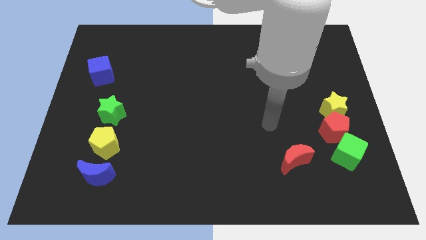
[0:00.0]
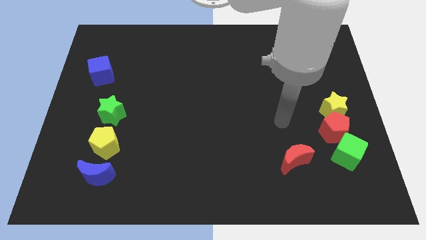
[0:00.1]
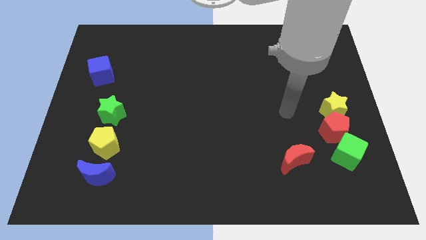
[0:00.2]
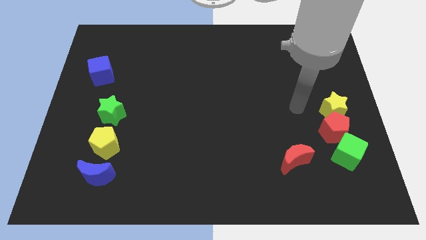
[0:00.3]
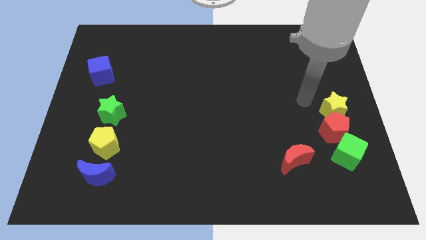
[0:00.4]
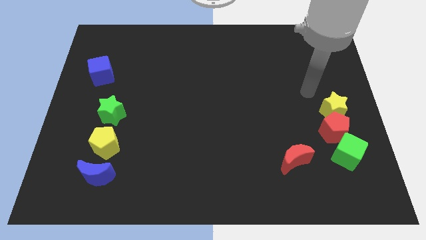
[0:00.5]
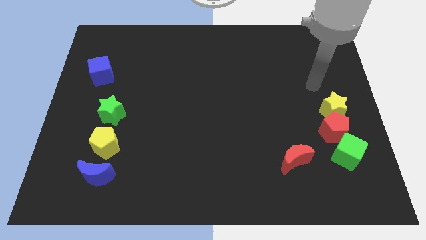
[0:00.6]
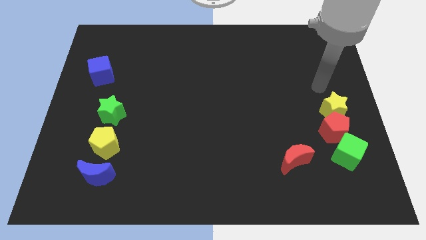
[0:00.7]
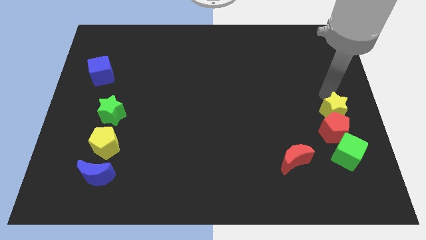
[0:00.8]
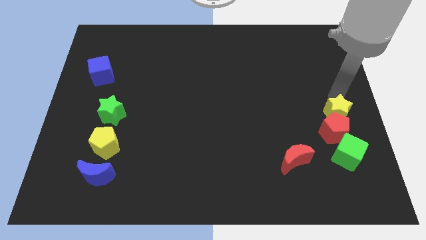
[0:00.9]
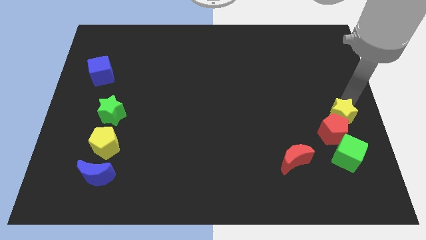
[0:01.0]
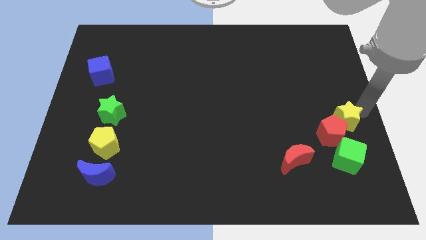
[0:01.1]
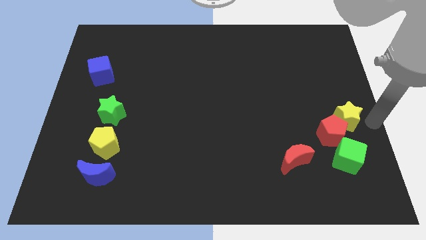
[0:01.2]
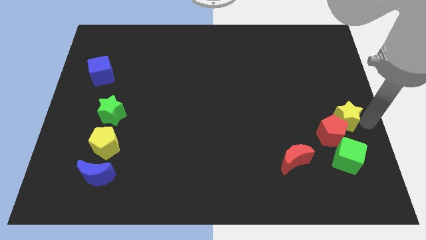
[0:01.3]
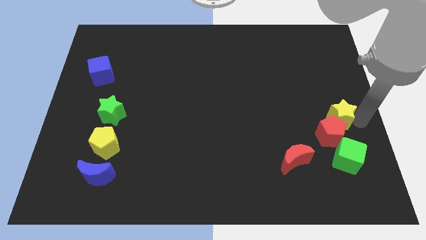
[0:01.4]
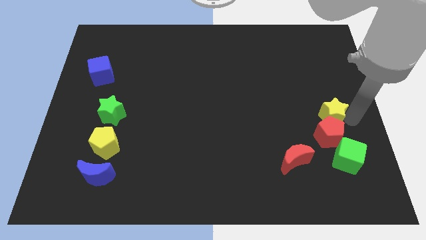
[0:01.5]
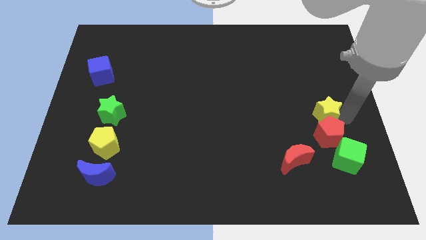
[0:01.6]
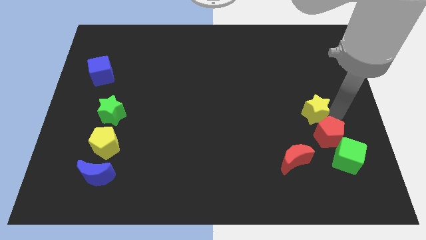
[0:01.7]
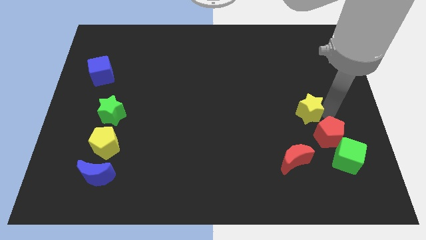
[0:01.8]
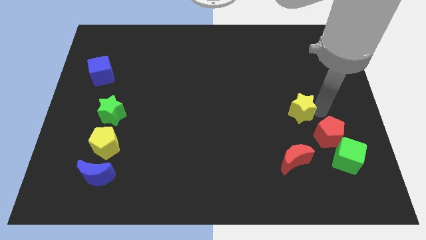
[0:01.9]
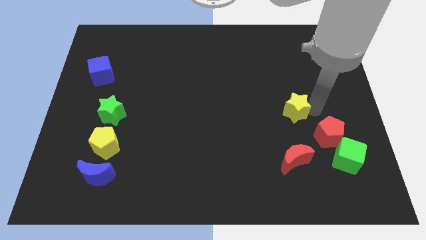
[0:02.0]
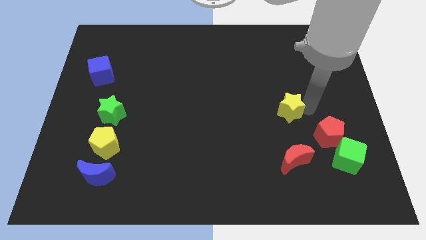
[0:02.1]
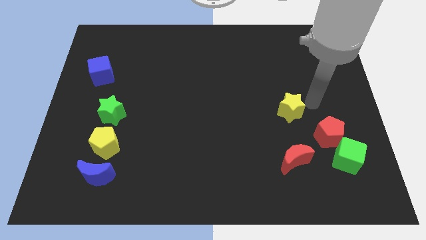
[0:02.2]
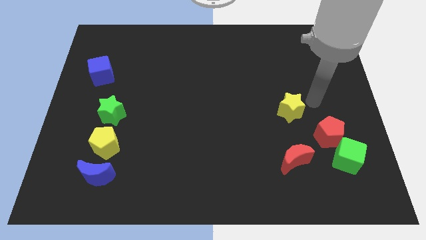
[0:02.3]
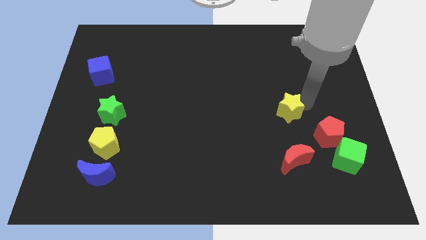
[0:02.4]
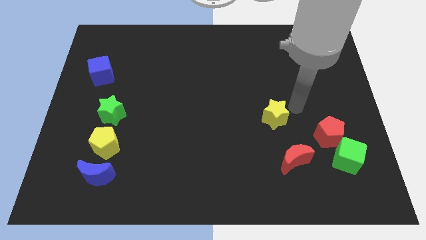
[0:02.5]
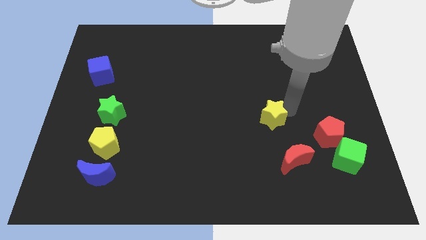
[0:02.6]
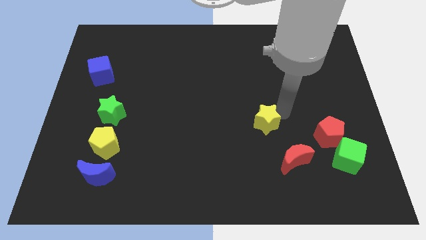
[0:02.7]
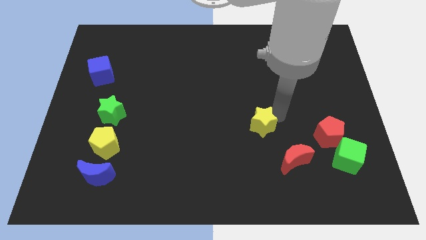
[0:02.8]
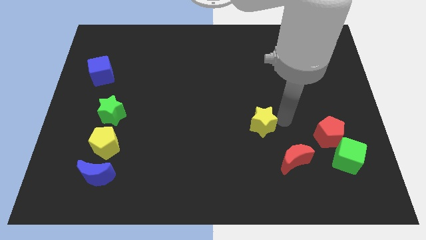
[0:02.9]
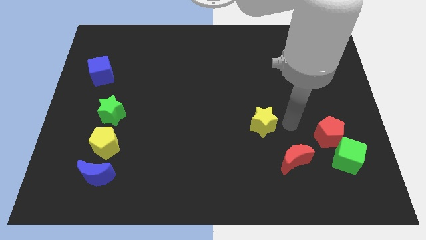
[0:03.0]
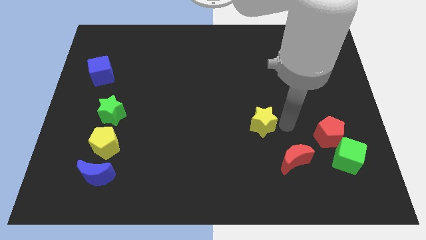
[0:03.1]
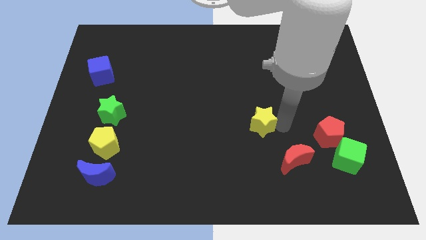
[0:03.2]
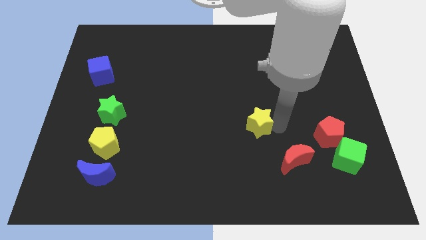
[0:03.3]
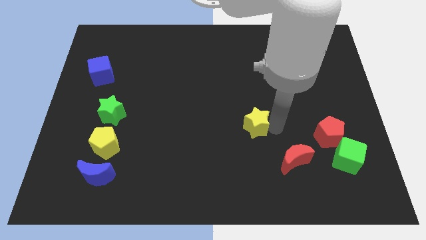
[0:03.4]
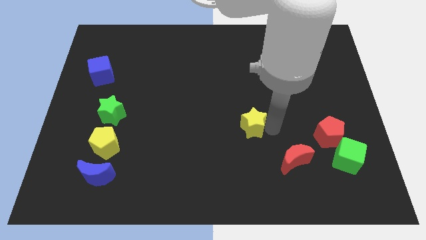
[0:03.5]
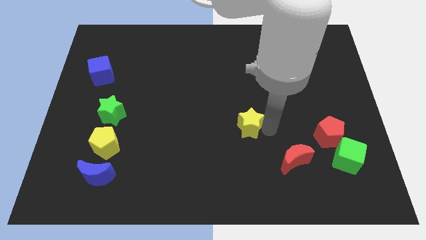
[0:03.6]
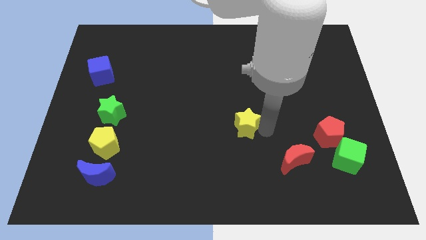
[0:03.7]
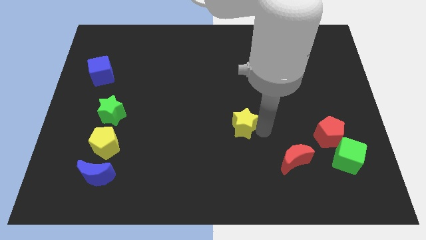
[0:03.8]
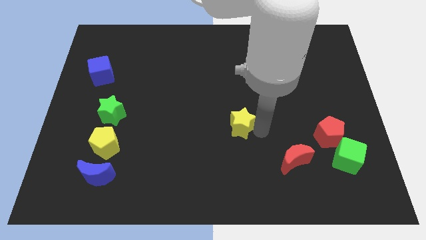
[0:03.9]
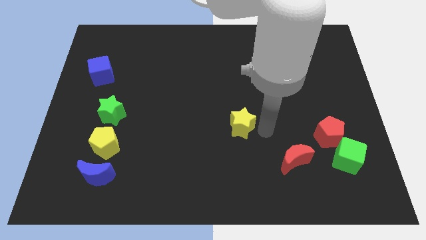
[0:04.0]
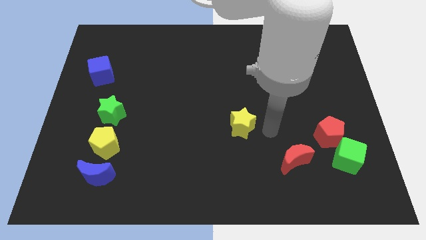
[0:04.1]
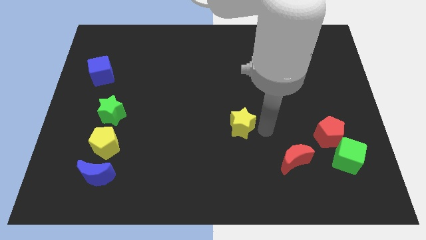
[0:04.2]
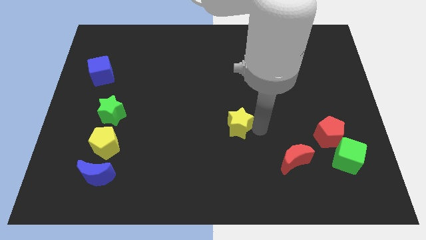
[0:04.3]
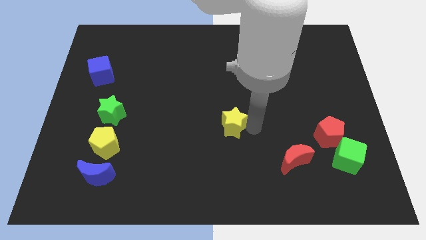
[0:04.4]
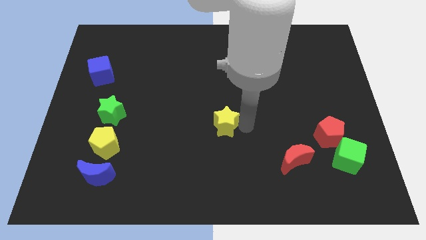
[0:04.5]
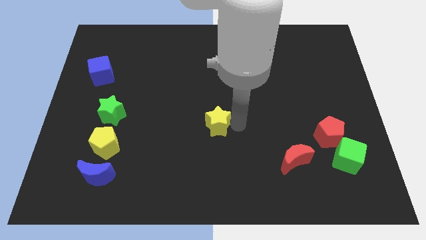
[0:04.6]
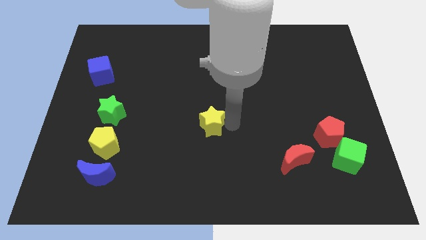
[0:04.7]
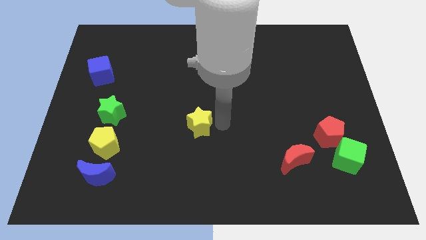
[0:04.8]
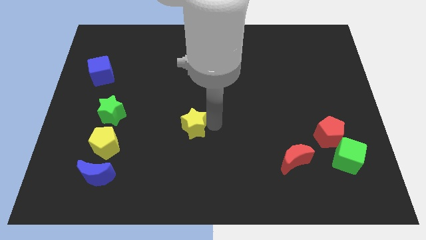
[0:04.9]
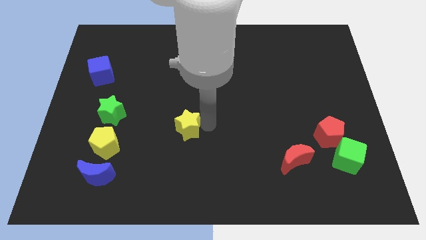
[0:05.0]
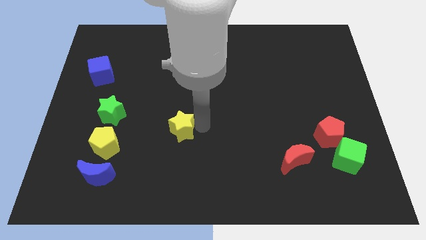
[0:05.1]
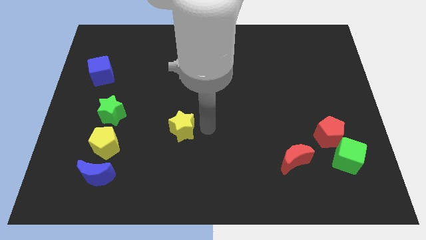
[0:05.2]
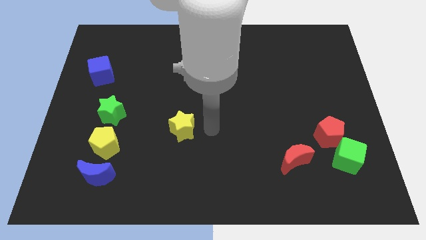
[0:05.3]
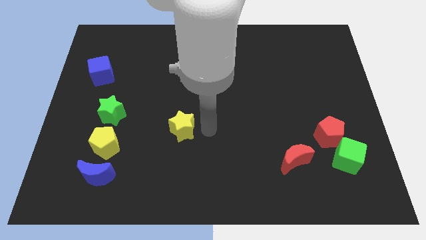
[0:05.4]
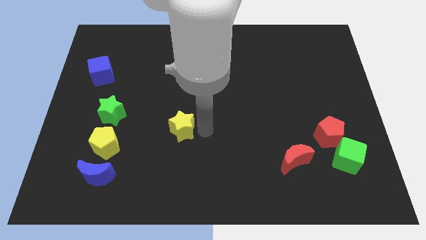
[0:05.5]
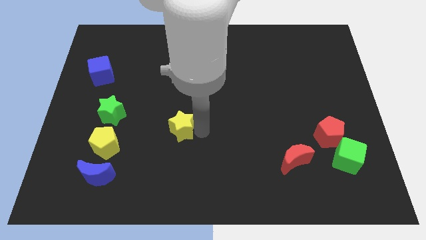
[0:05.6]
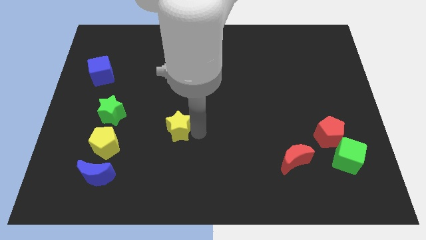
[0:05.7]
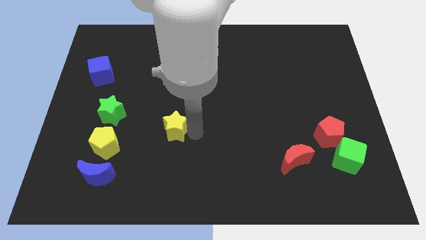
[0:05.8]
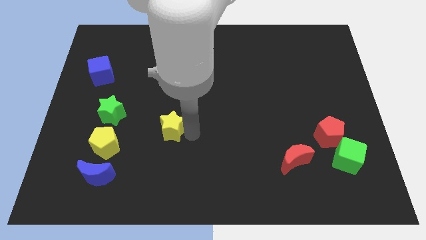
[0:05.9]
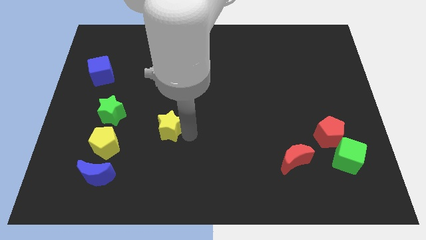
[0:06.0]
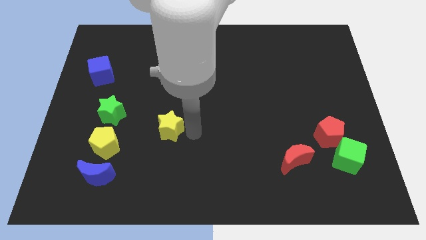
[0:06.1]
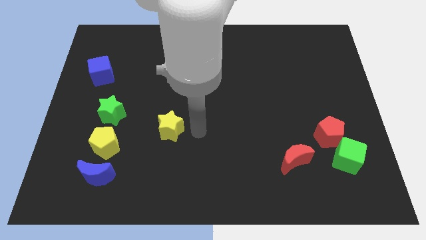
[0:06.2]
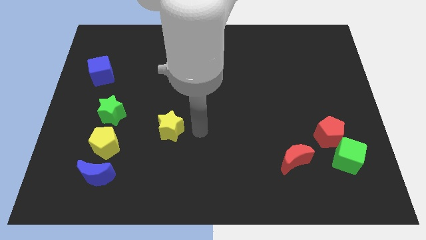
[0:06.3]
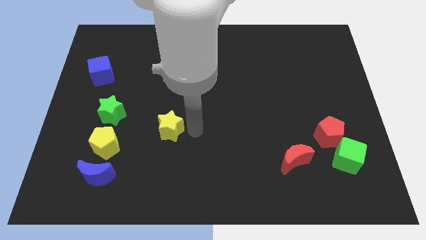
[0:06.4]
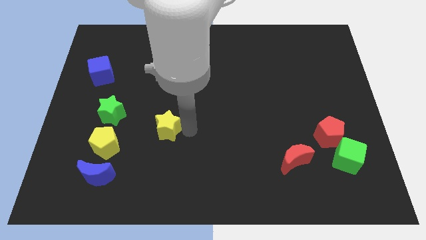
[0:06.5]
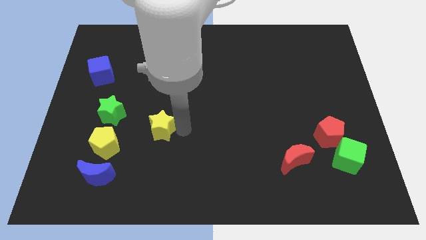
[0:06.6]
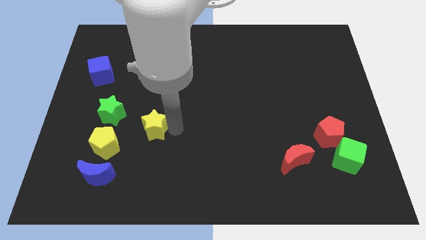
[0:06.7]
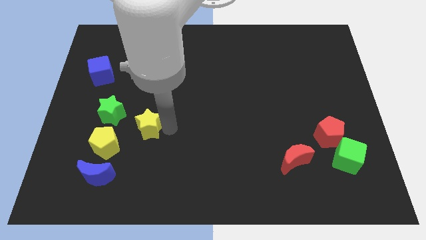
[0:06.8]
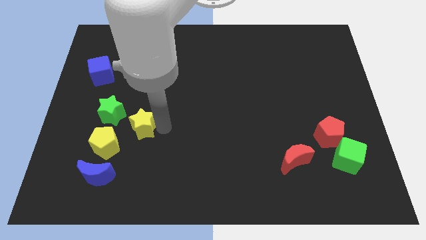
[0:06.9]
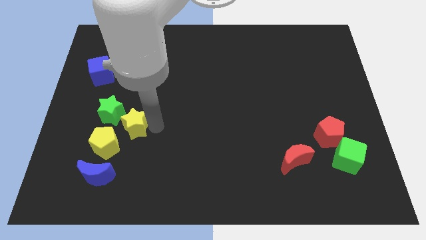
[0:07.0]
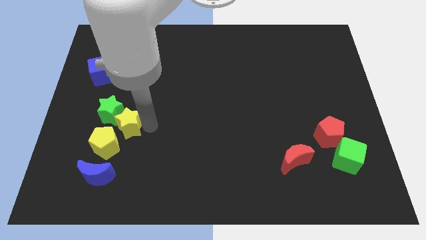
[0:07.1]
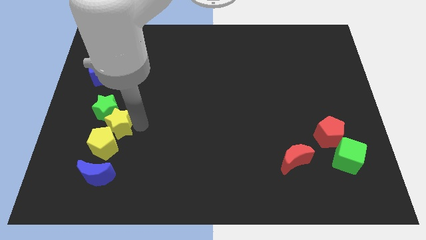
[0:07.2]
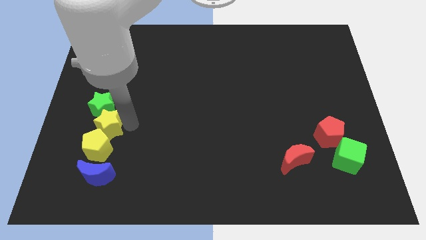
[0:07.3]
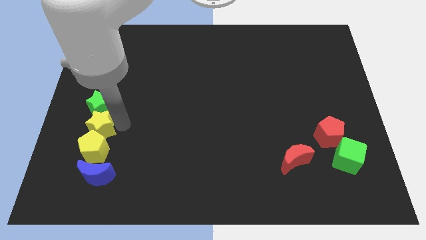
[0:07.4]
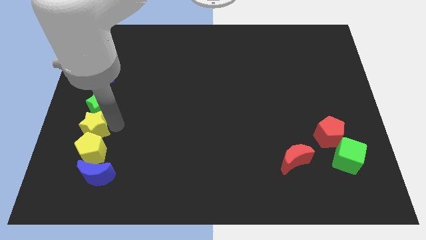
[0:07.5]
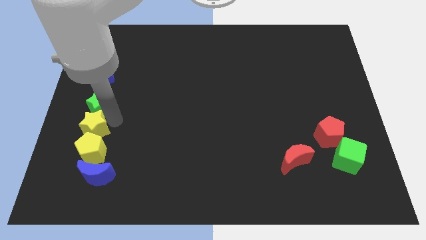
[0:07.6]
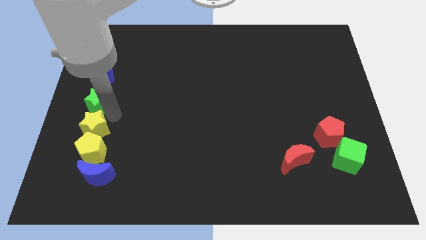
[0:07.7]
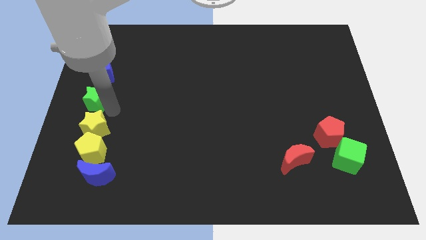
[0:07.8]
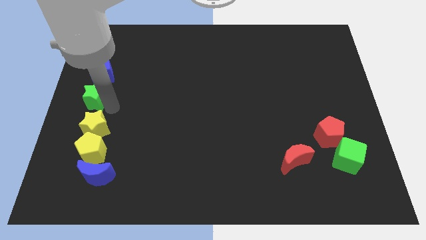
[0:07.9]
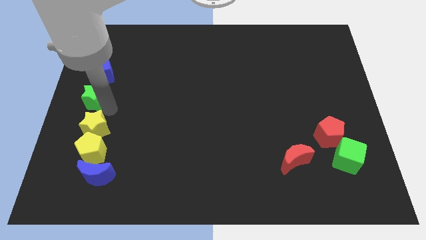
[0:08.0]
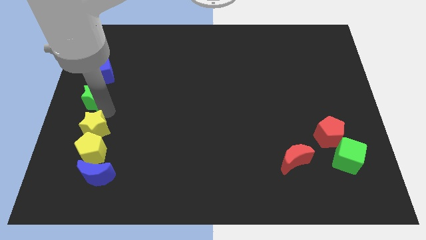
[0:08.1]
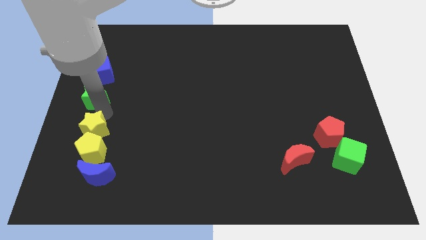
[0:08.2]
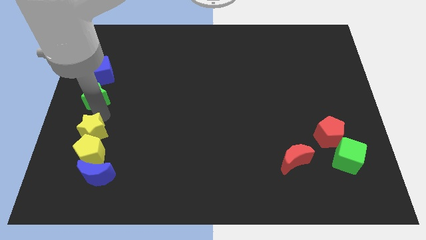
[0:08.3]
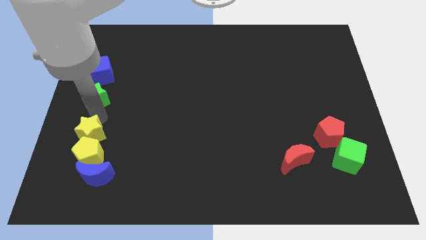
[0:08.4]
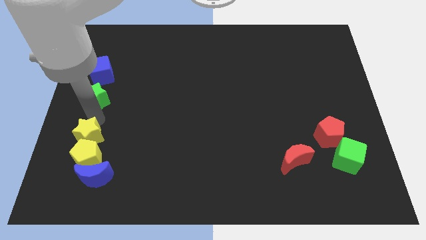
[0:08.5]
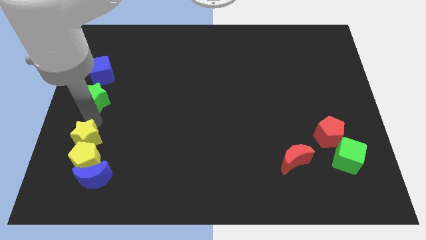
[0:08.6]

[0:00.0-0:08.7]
put the yellow star to the top left of the blue moon
